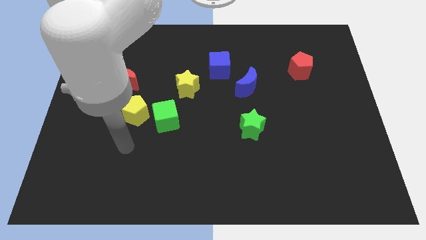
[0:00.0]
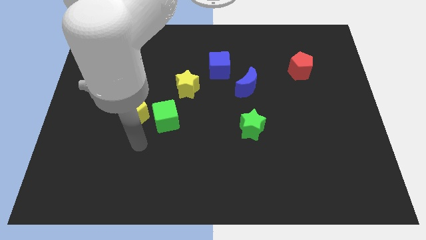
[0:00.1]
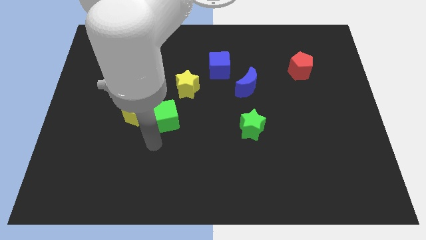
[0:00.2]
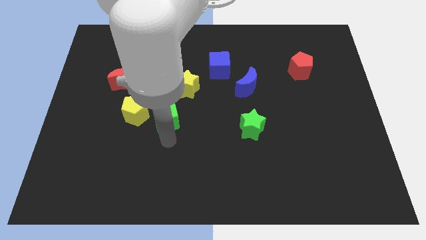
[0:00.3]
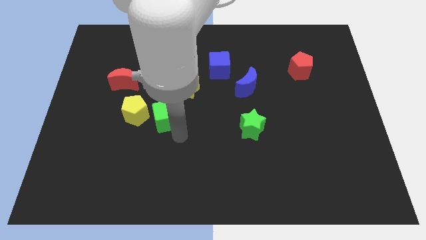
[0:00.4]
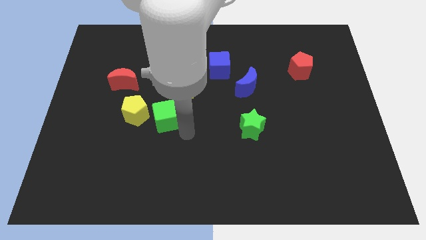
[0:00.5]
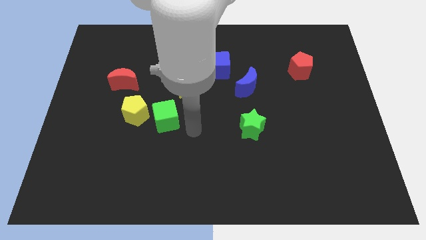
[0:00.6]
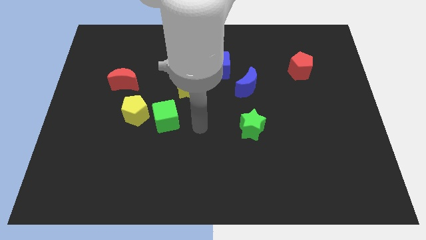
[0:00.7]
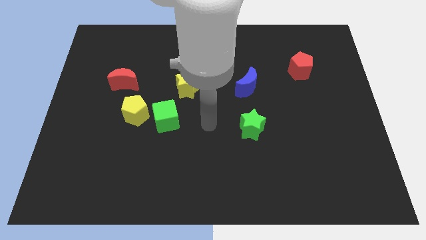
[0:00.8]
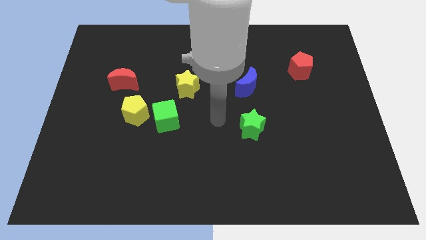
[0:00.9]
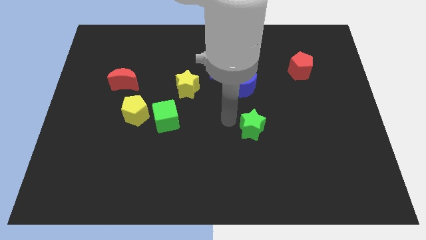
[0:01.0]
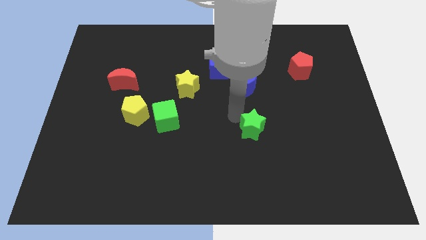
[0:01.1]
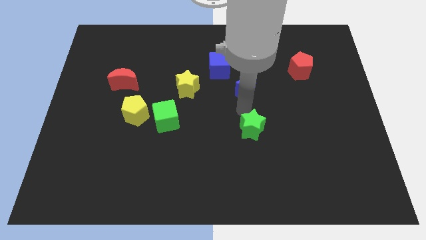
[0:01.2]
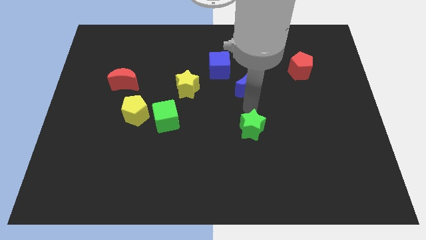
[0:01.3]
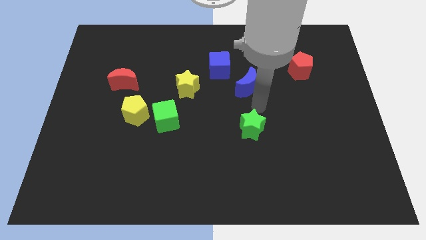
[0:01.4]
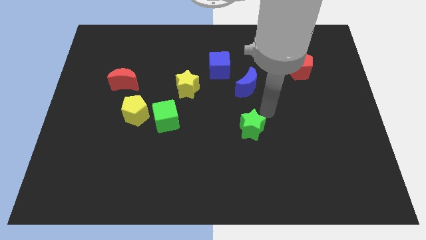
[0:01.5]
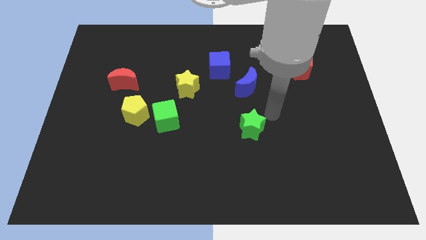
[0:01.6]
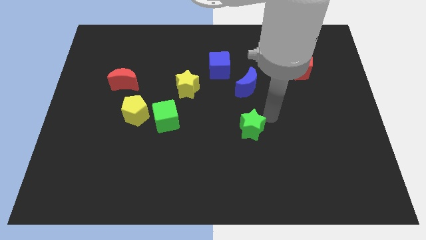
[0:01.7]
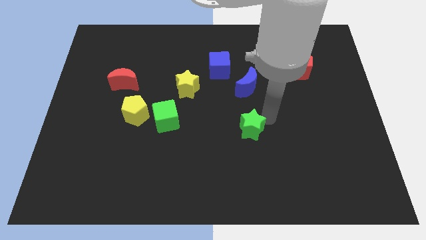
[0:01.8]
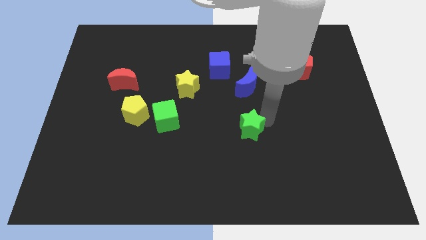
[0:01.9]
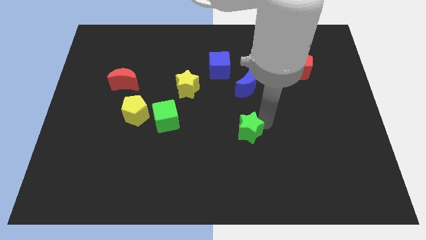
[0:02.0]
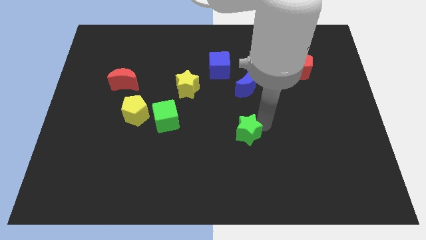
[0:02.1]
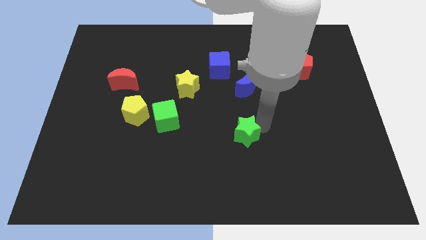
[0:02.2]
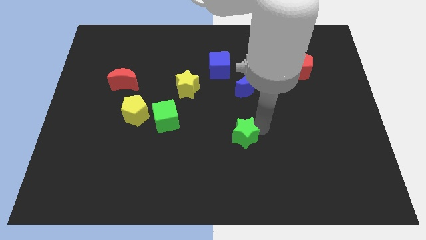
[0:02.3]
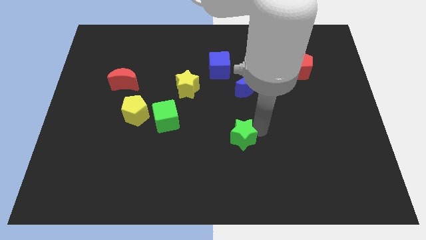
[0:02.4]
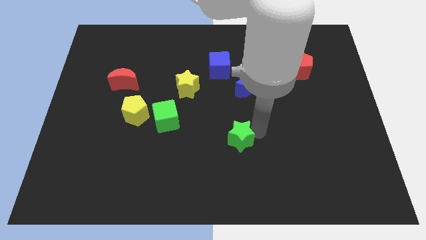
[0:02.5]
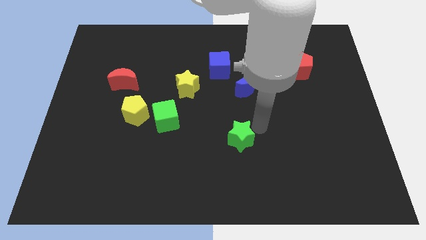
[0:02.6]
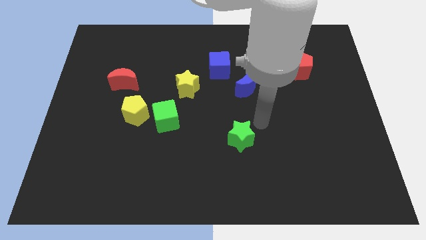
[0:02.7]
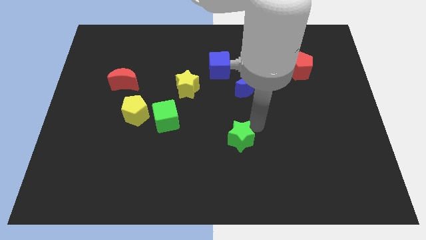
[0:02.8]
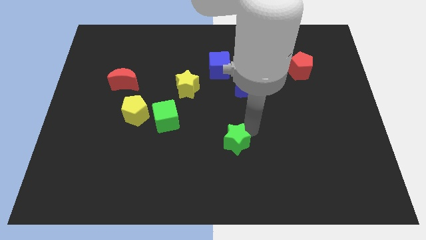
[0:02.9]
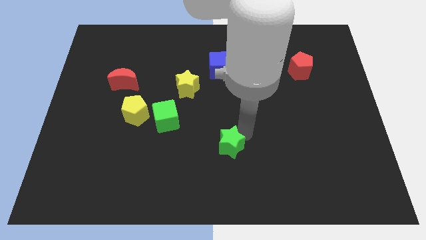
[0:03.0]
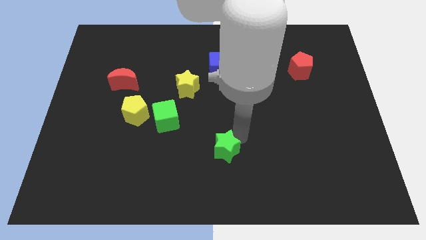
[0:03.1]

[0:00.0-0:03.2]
slightly move the green star downwards and then to the left

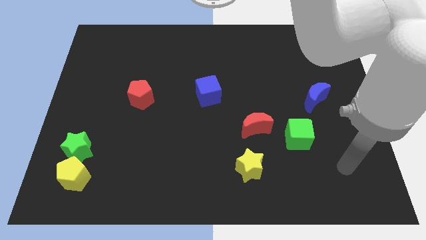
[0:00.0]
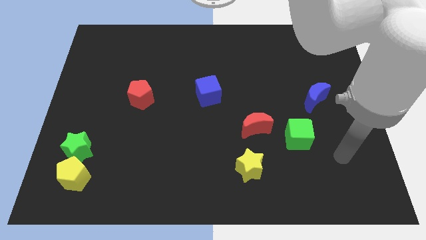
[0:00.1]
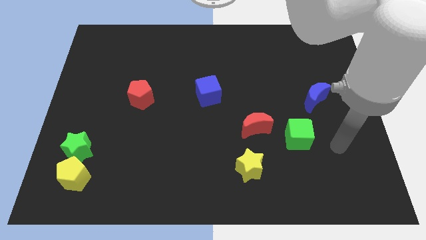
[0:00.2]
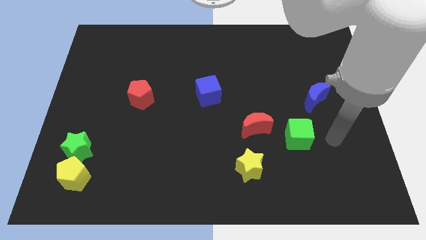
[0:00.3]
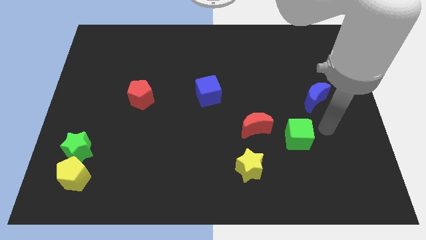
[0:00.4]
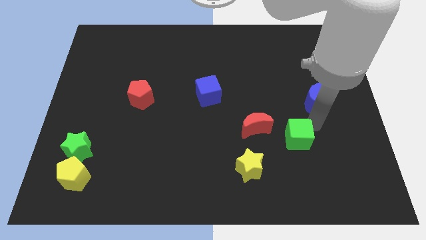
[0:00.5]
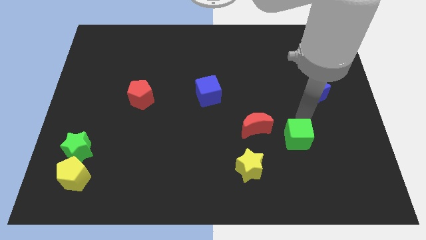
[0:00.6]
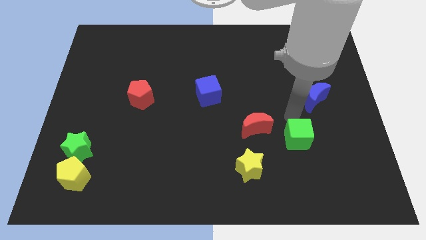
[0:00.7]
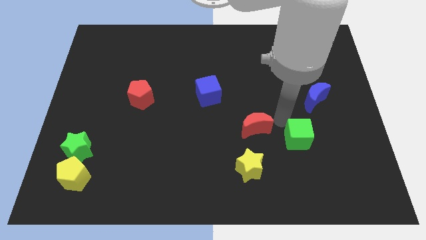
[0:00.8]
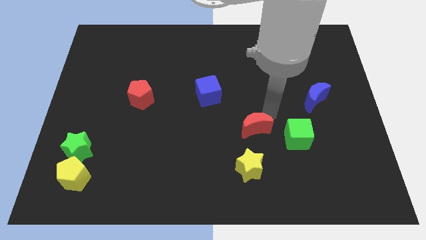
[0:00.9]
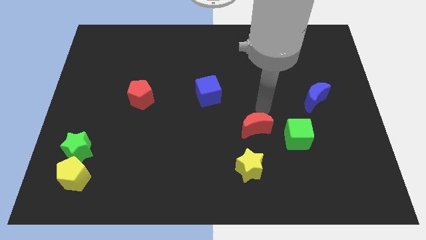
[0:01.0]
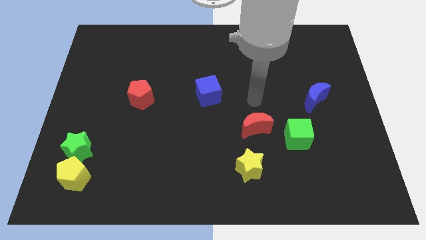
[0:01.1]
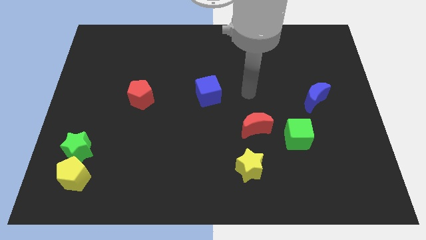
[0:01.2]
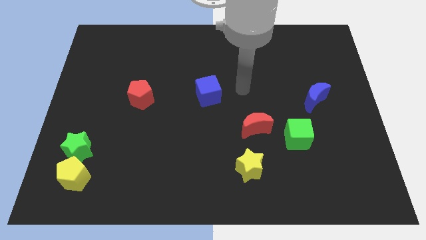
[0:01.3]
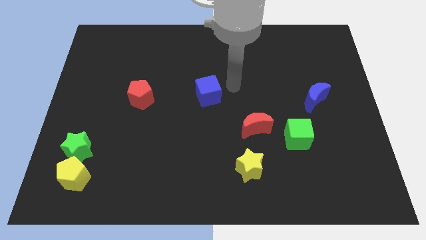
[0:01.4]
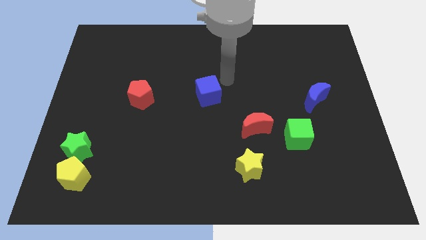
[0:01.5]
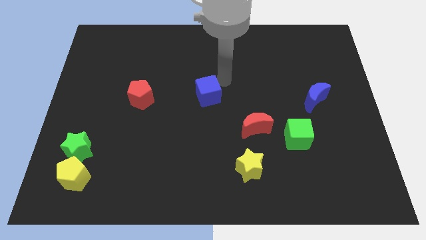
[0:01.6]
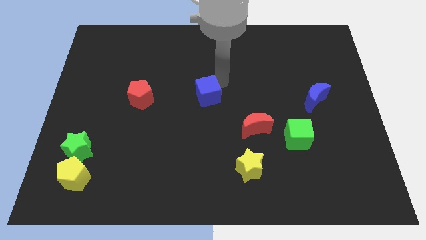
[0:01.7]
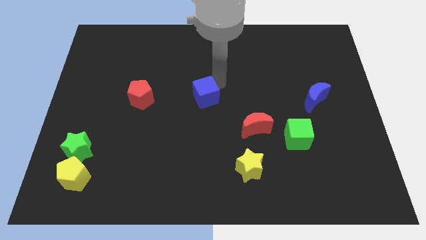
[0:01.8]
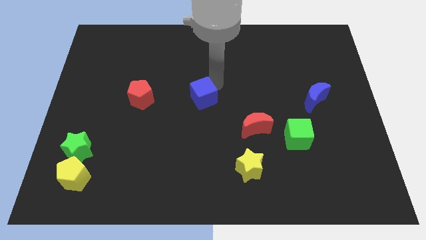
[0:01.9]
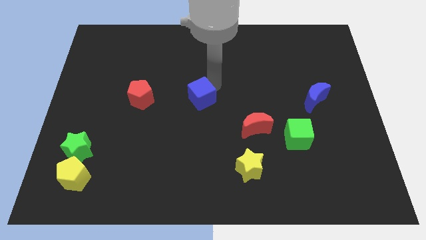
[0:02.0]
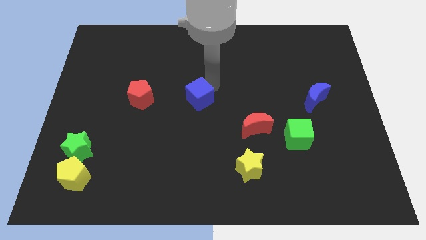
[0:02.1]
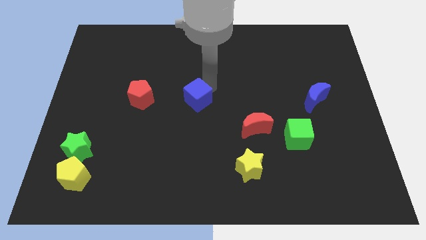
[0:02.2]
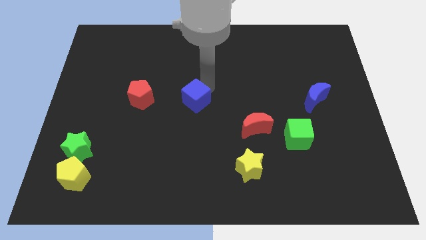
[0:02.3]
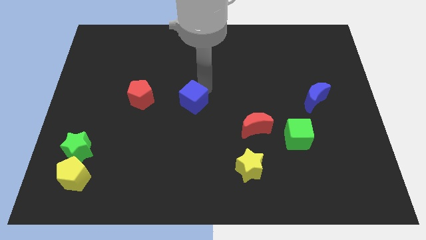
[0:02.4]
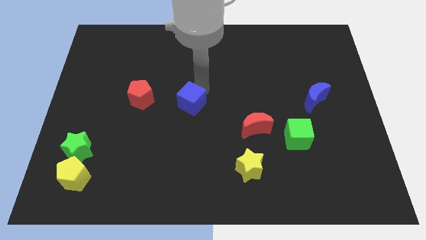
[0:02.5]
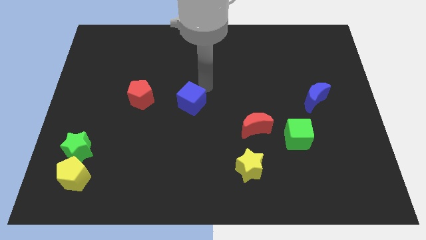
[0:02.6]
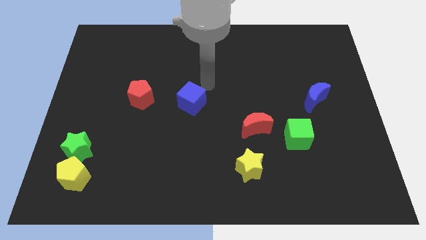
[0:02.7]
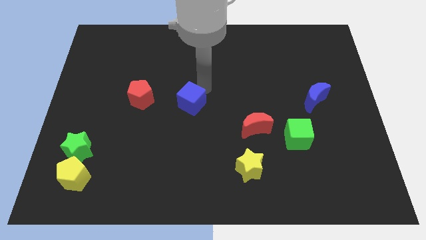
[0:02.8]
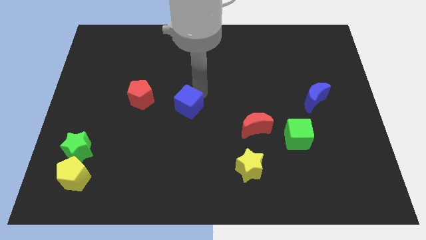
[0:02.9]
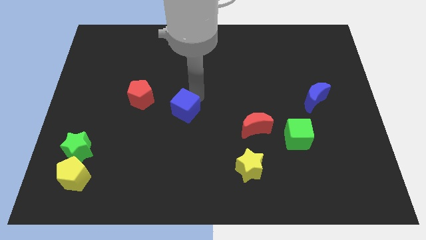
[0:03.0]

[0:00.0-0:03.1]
slightly move the blue cube downwards and to the left diagonally

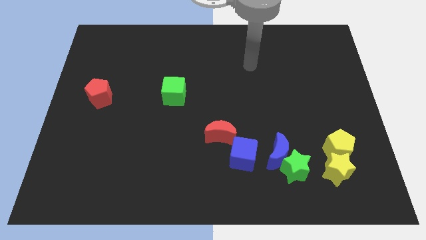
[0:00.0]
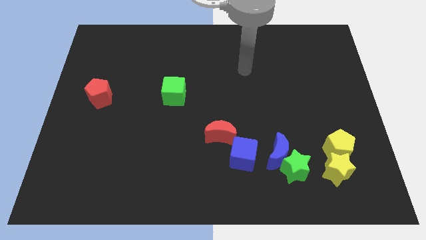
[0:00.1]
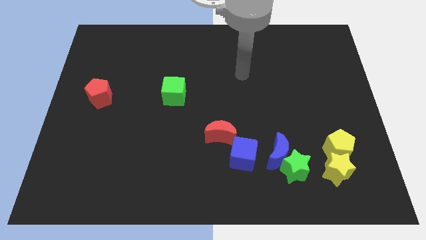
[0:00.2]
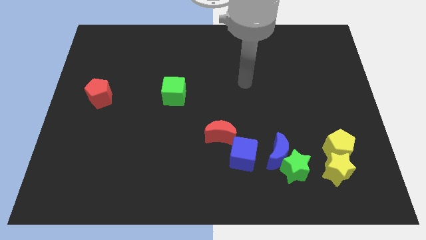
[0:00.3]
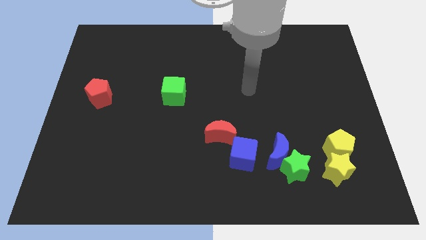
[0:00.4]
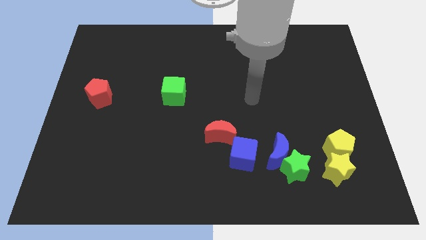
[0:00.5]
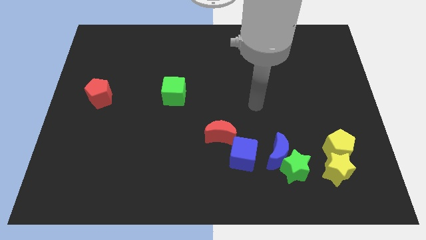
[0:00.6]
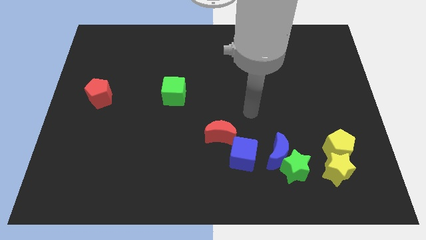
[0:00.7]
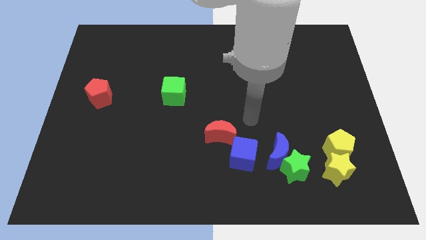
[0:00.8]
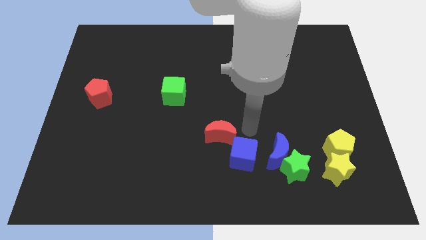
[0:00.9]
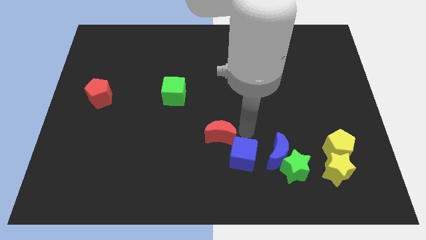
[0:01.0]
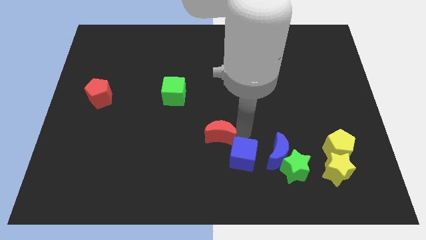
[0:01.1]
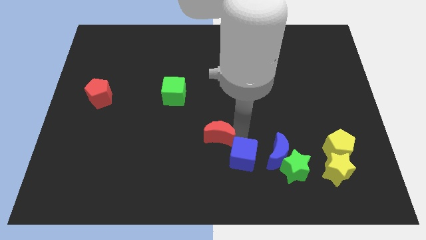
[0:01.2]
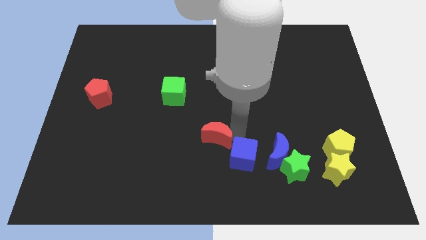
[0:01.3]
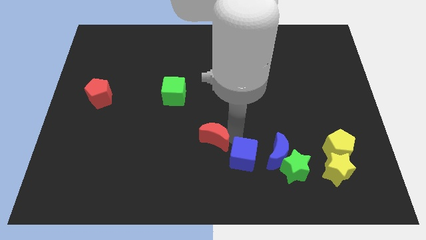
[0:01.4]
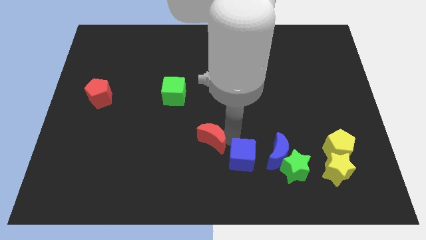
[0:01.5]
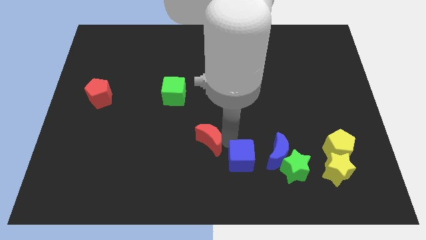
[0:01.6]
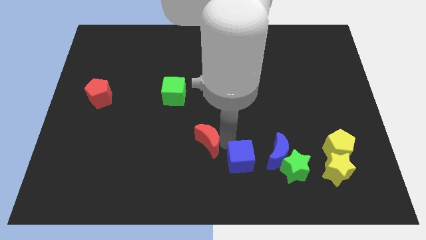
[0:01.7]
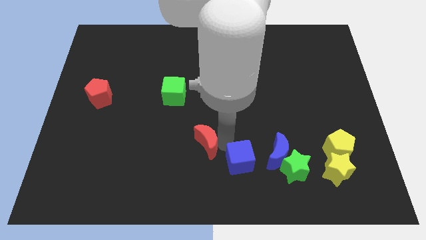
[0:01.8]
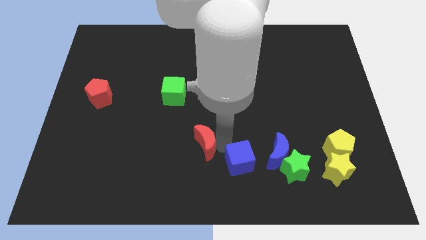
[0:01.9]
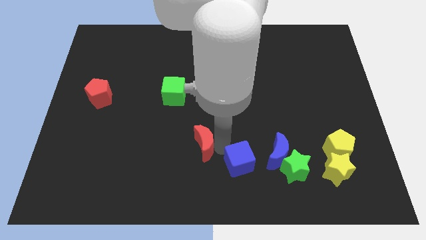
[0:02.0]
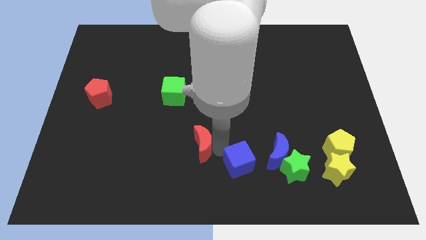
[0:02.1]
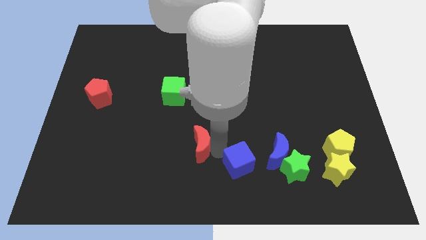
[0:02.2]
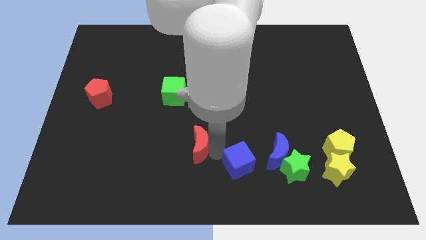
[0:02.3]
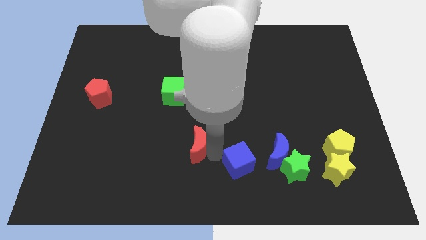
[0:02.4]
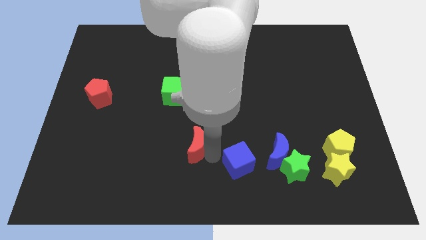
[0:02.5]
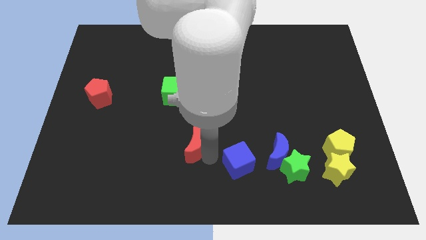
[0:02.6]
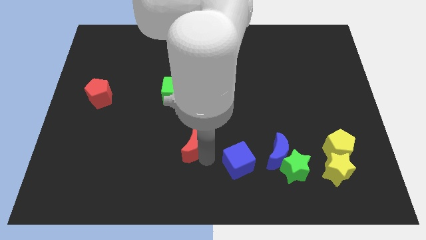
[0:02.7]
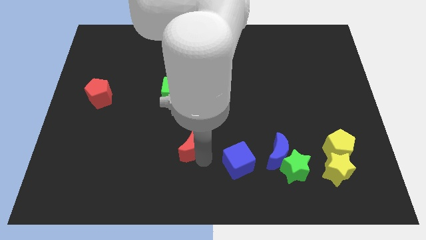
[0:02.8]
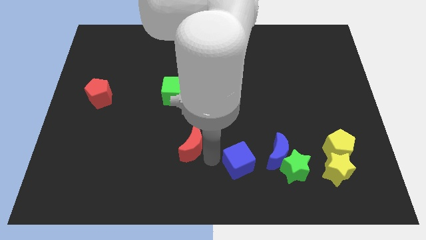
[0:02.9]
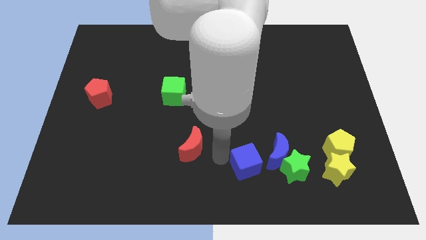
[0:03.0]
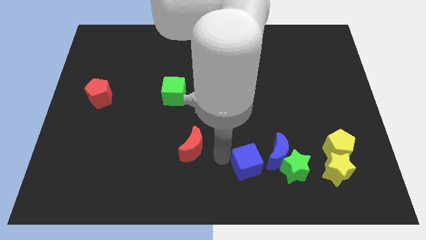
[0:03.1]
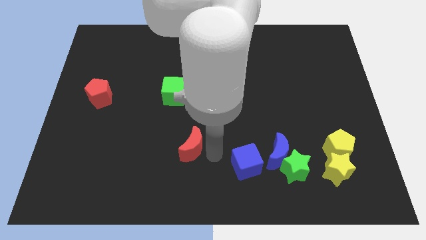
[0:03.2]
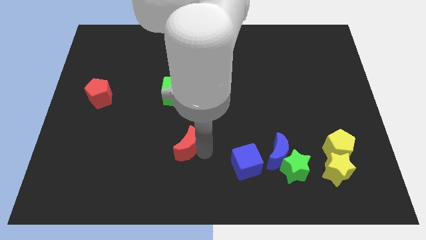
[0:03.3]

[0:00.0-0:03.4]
move the red moon a bit left
